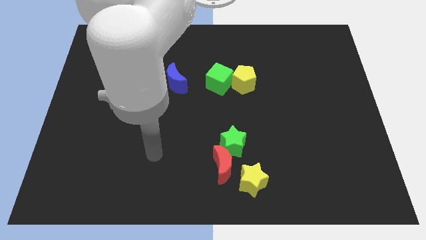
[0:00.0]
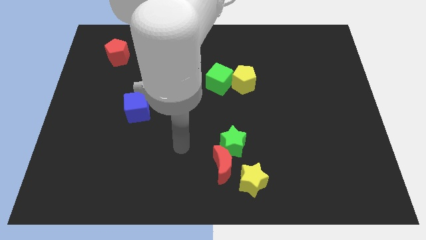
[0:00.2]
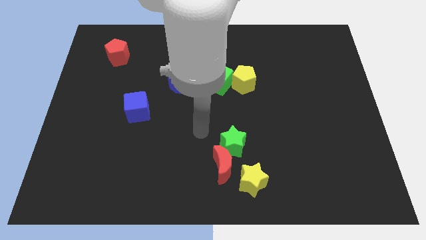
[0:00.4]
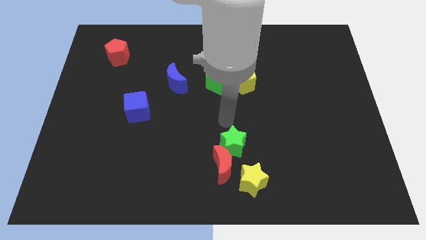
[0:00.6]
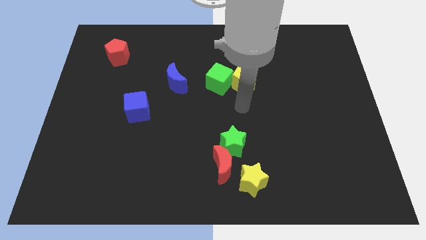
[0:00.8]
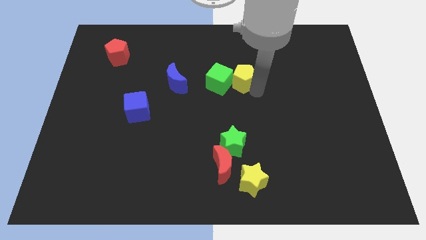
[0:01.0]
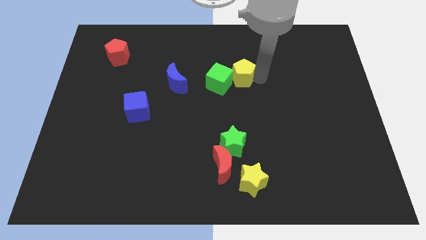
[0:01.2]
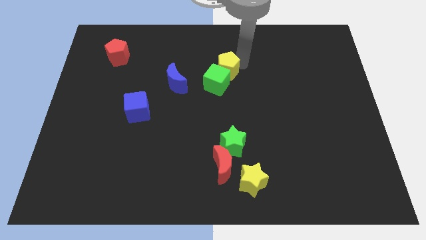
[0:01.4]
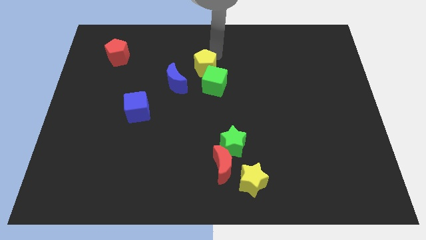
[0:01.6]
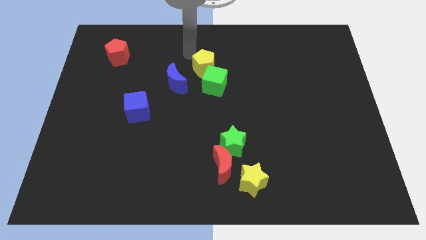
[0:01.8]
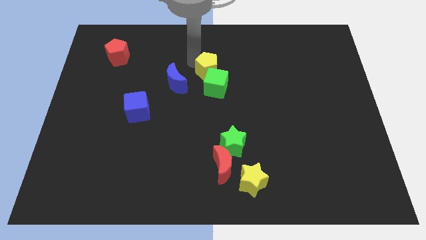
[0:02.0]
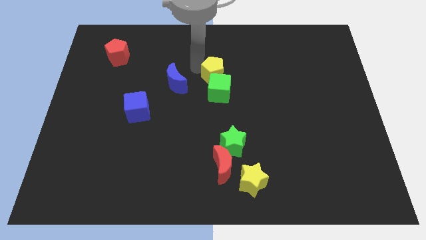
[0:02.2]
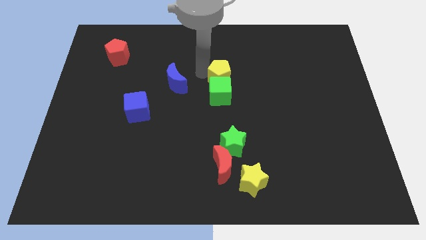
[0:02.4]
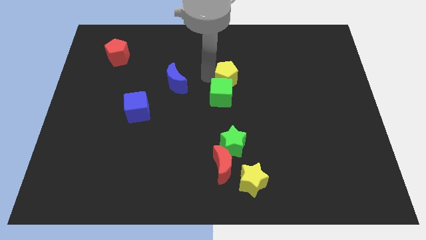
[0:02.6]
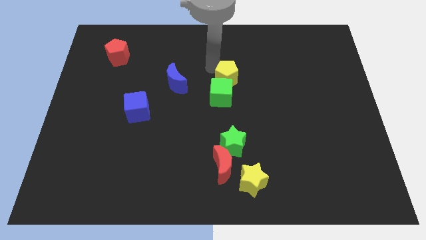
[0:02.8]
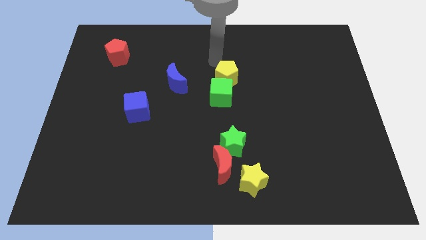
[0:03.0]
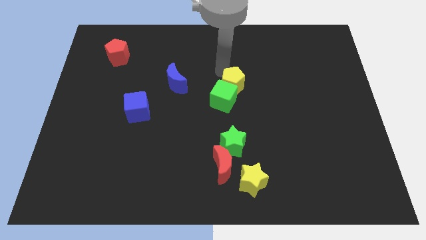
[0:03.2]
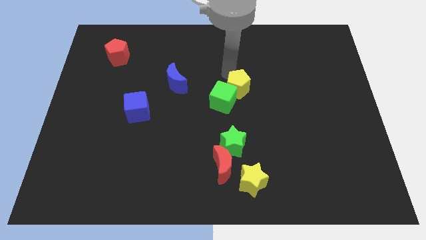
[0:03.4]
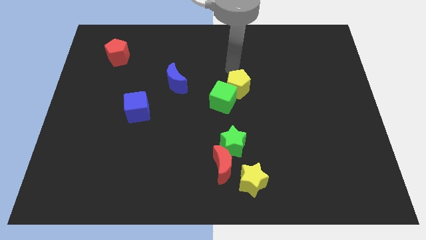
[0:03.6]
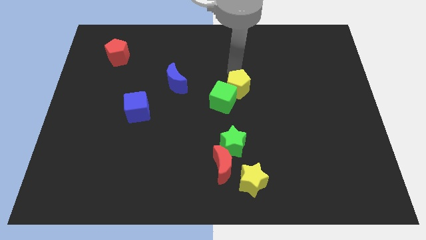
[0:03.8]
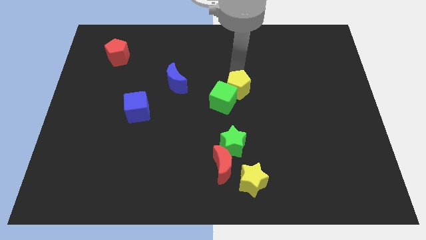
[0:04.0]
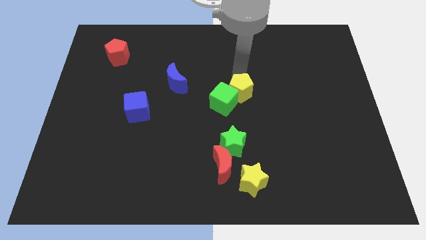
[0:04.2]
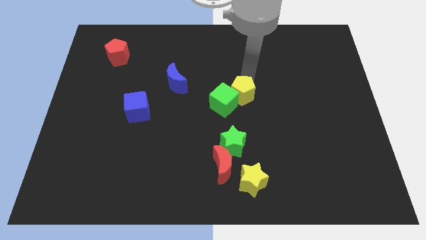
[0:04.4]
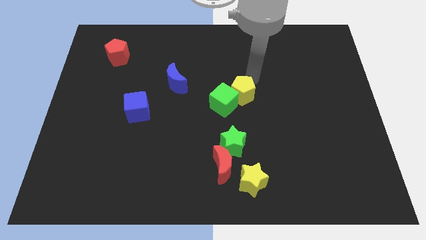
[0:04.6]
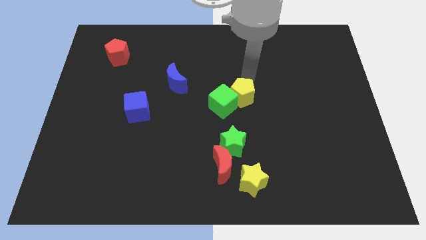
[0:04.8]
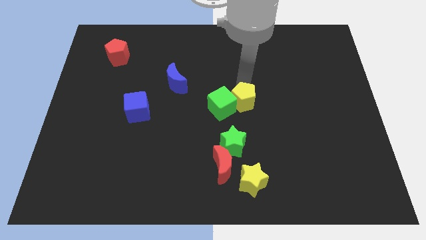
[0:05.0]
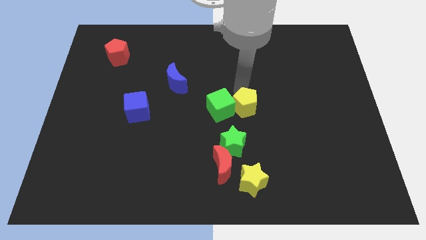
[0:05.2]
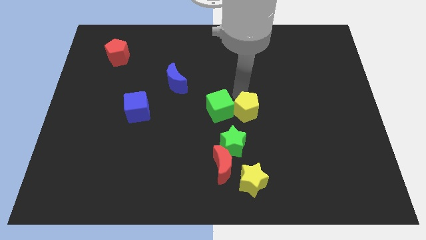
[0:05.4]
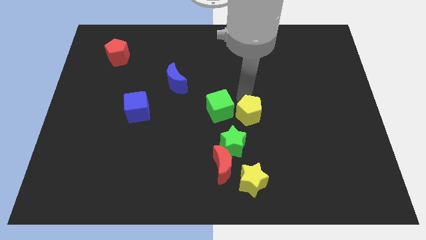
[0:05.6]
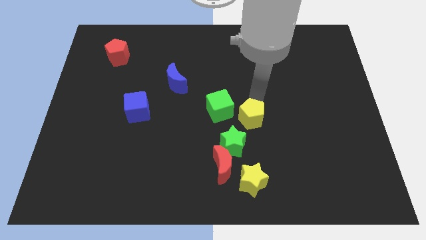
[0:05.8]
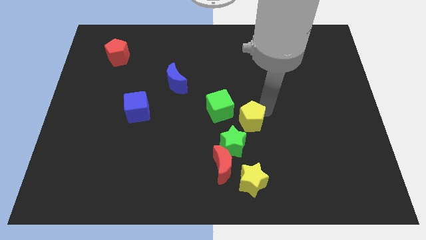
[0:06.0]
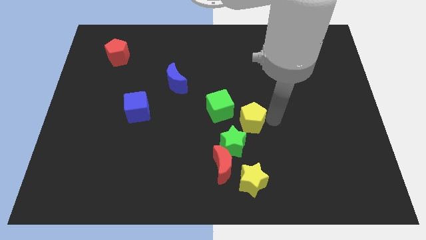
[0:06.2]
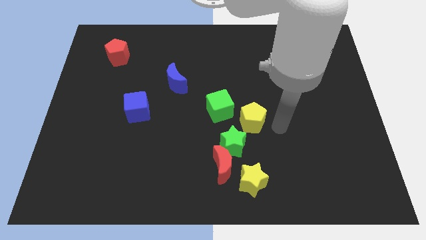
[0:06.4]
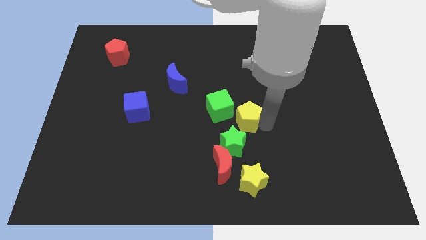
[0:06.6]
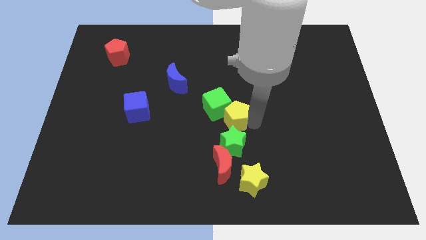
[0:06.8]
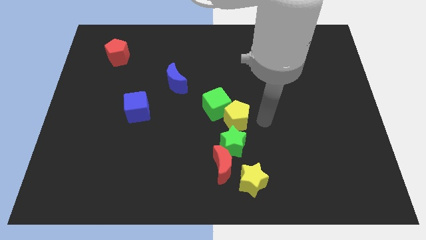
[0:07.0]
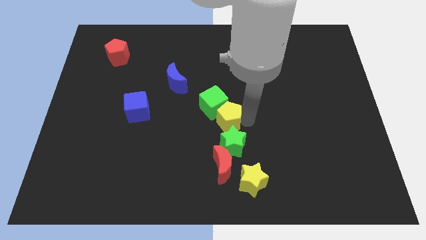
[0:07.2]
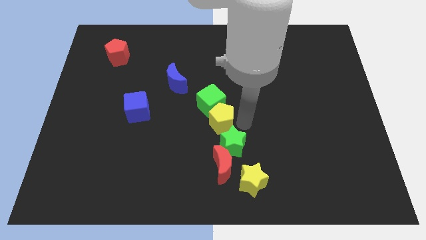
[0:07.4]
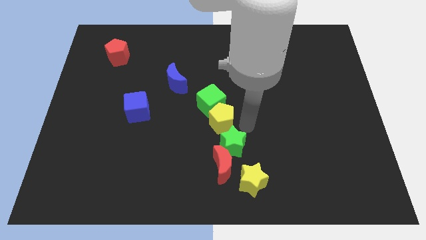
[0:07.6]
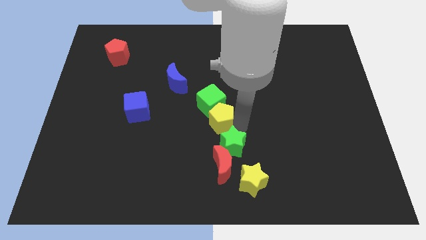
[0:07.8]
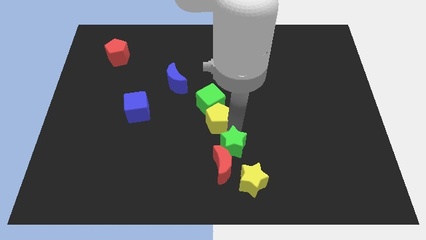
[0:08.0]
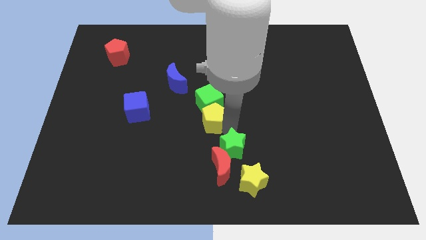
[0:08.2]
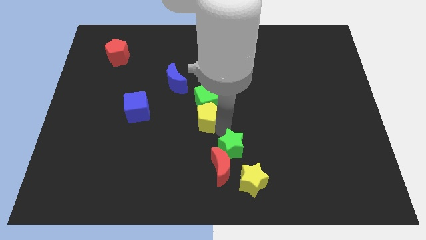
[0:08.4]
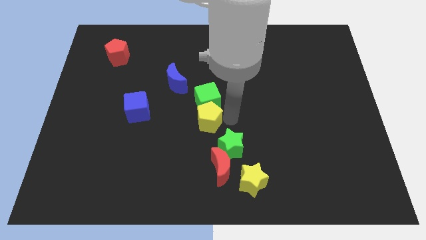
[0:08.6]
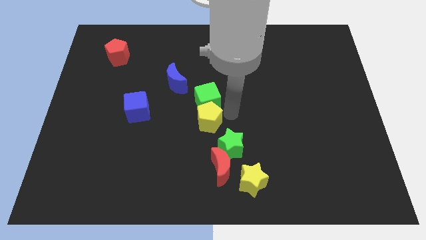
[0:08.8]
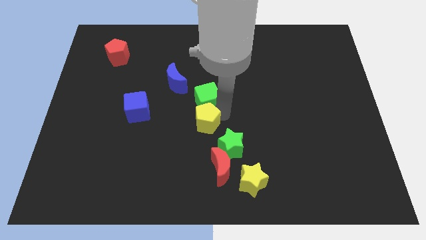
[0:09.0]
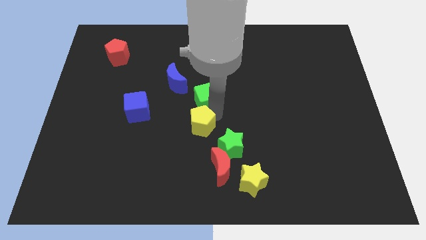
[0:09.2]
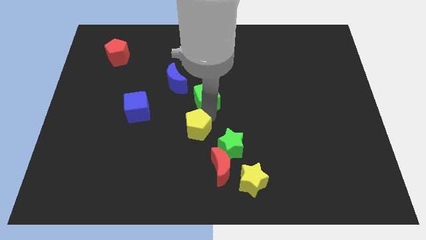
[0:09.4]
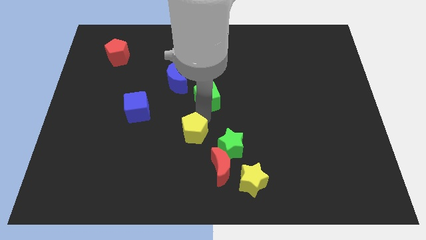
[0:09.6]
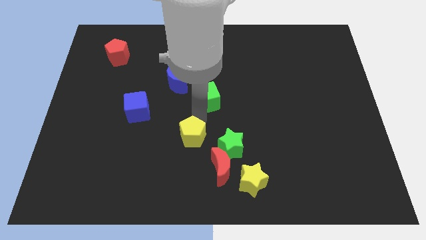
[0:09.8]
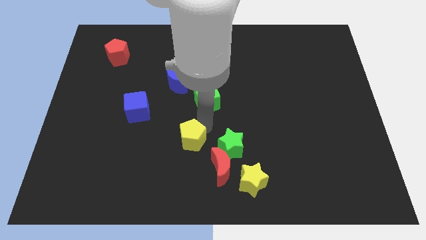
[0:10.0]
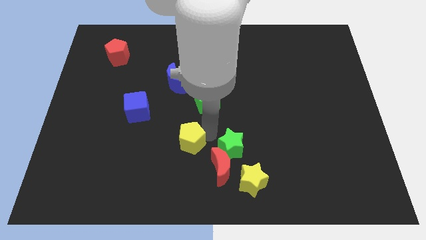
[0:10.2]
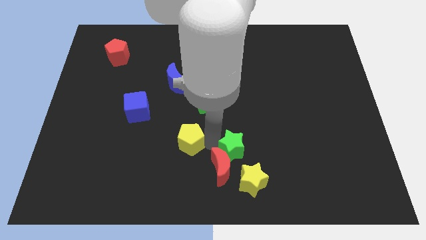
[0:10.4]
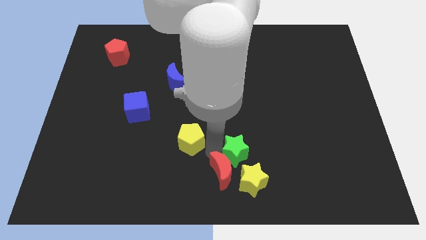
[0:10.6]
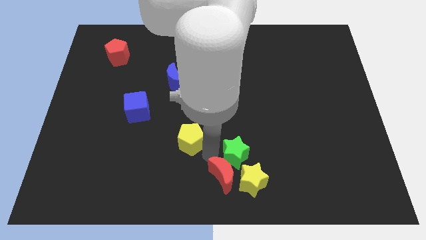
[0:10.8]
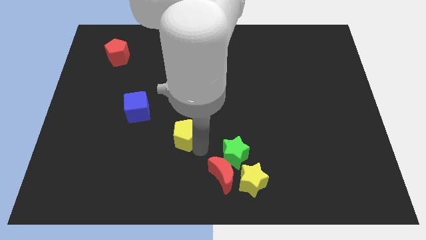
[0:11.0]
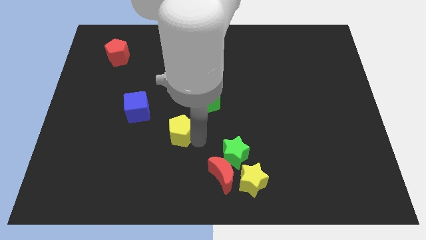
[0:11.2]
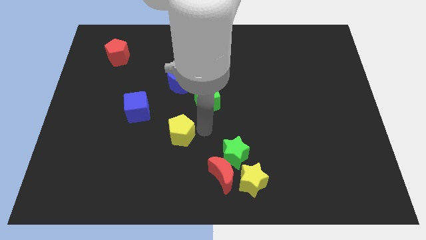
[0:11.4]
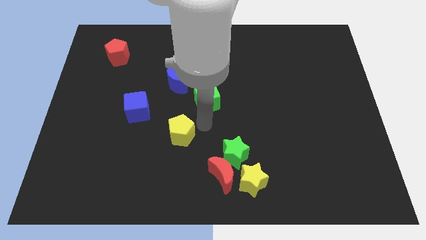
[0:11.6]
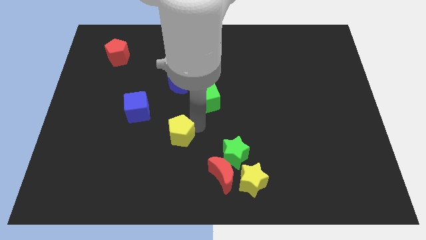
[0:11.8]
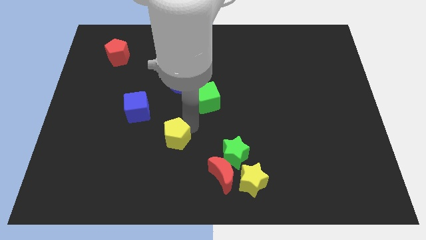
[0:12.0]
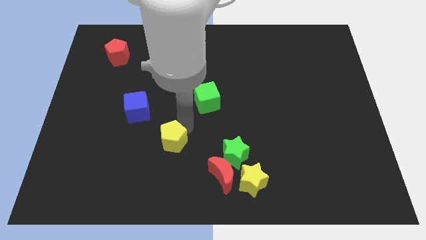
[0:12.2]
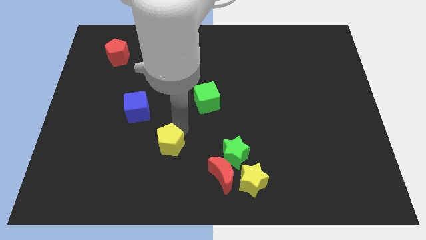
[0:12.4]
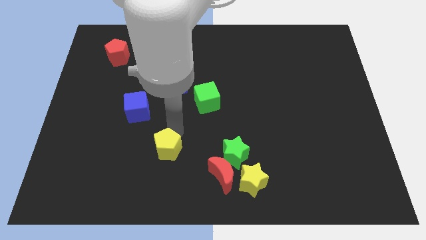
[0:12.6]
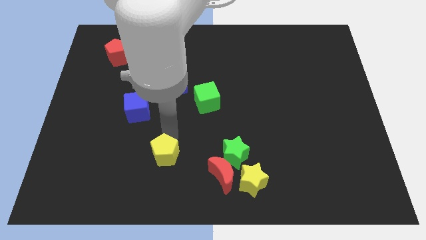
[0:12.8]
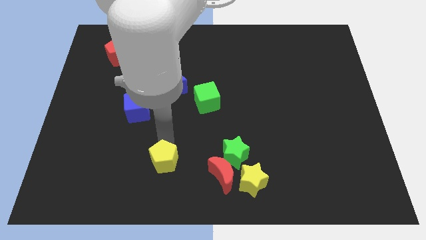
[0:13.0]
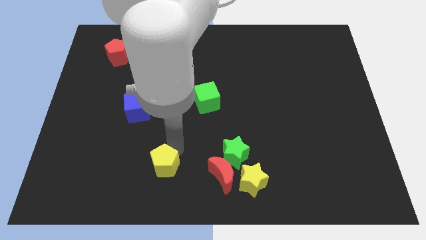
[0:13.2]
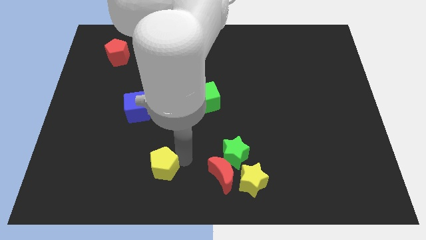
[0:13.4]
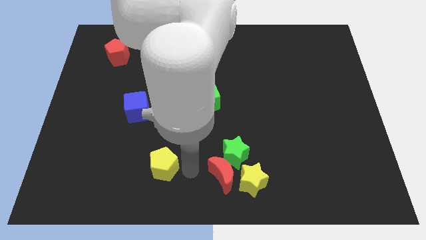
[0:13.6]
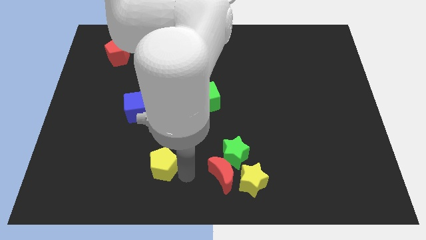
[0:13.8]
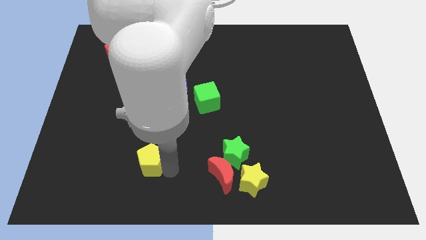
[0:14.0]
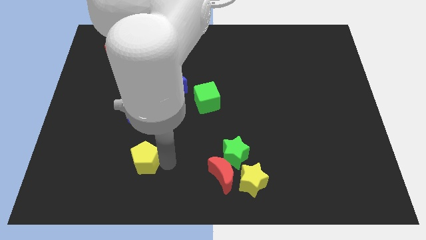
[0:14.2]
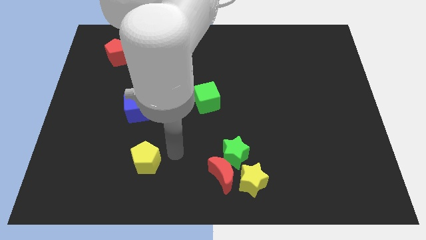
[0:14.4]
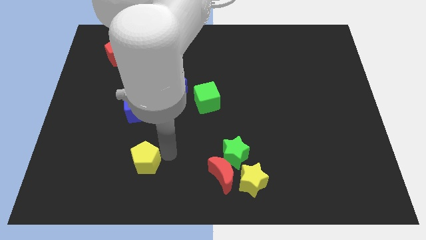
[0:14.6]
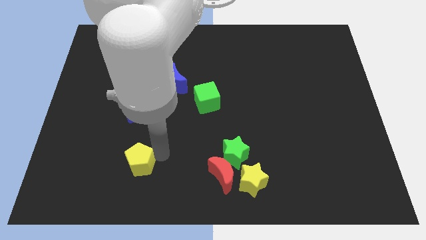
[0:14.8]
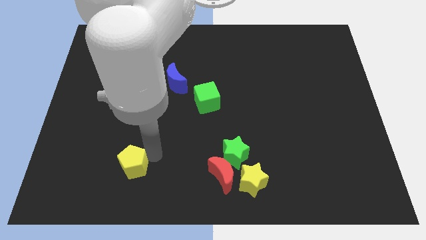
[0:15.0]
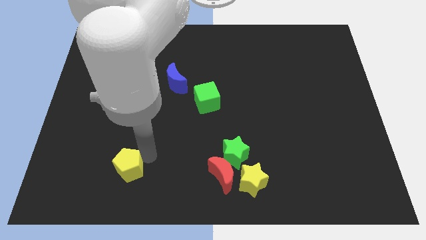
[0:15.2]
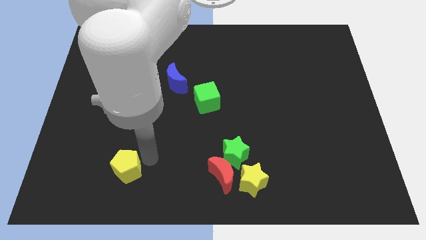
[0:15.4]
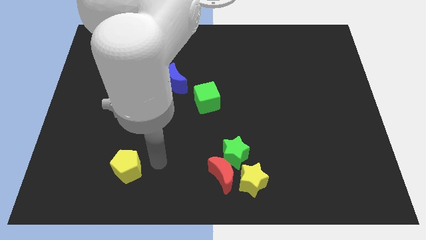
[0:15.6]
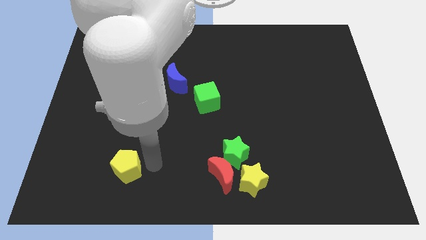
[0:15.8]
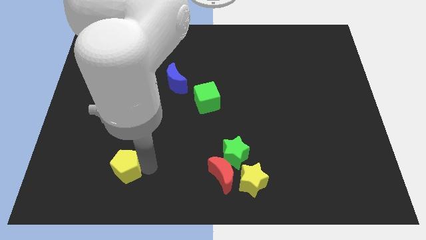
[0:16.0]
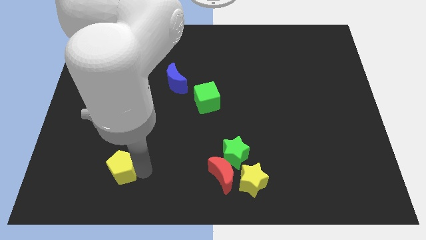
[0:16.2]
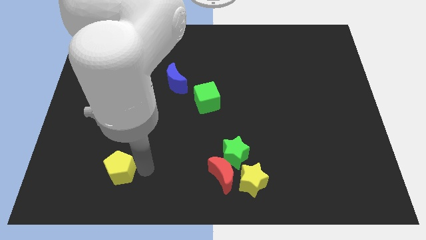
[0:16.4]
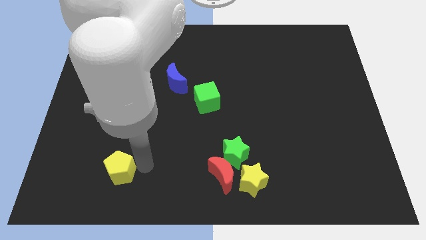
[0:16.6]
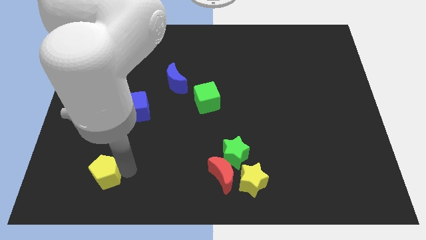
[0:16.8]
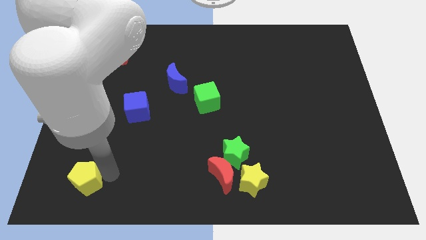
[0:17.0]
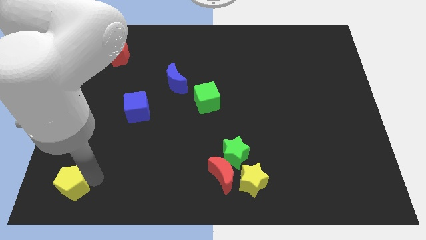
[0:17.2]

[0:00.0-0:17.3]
put the yellow pentagon to the bottom left corner
